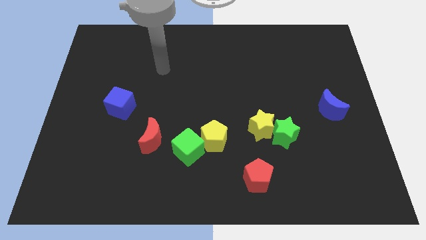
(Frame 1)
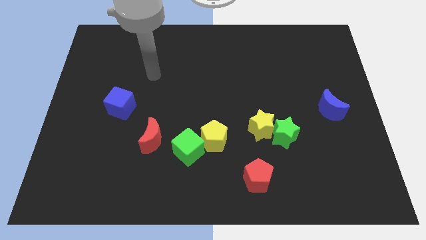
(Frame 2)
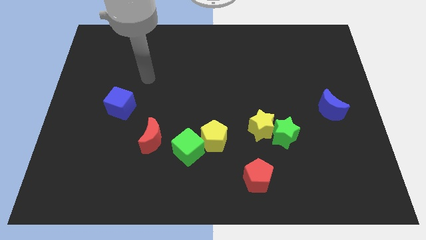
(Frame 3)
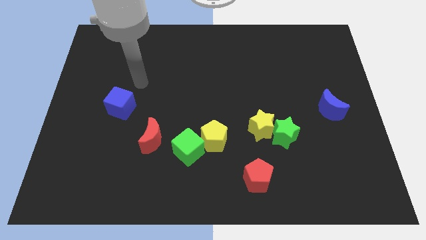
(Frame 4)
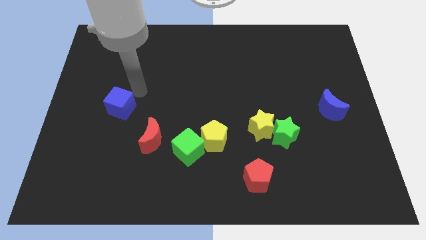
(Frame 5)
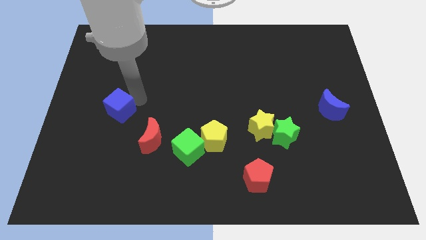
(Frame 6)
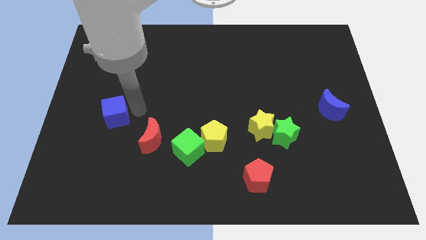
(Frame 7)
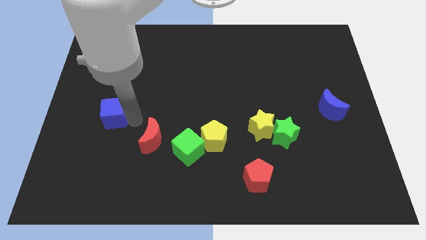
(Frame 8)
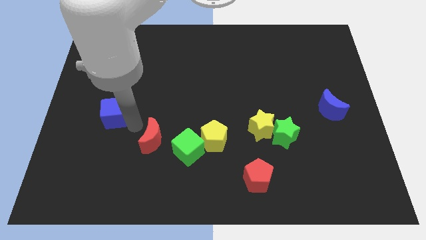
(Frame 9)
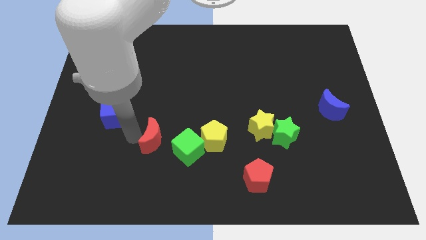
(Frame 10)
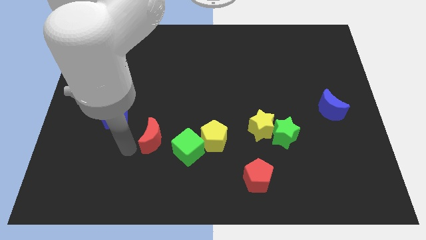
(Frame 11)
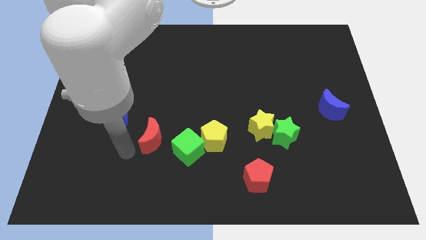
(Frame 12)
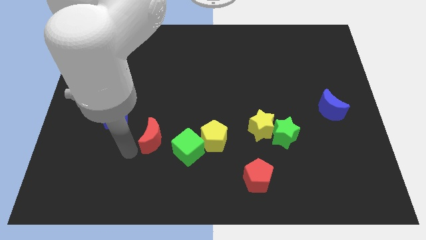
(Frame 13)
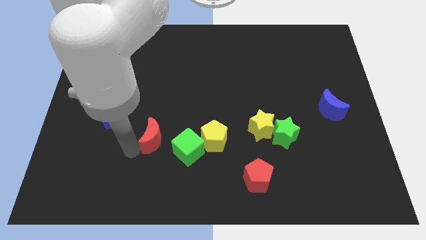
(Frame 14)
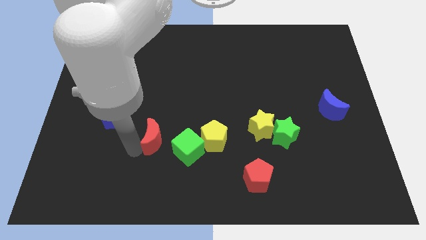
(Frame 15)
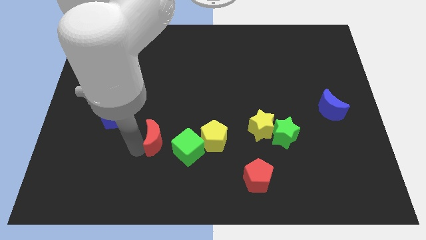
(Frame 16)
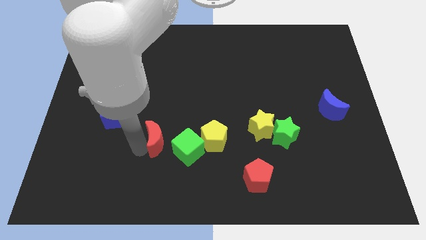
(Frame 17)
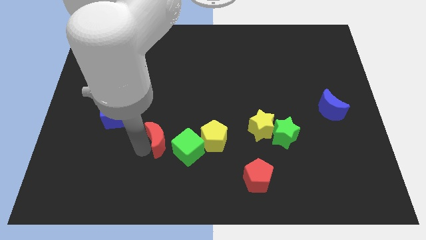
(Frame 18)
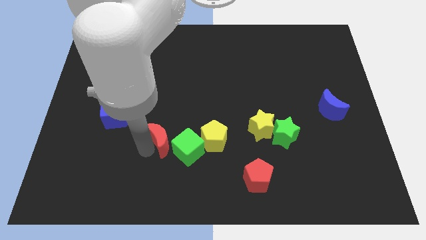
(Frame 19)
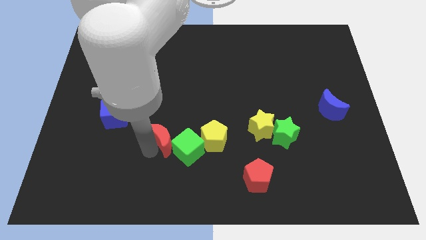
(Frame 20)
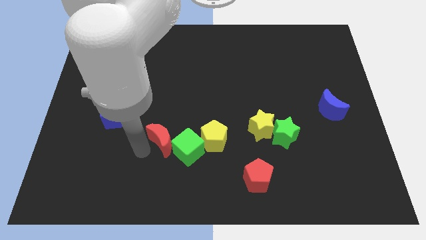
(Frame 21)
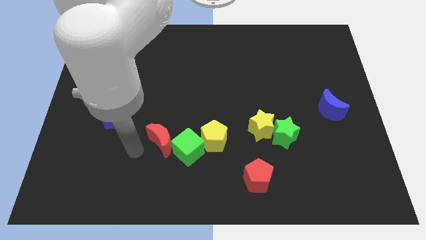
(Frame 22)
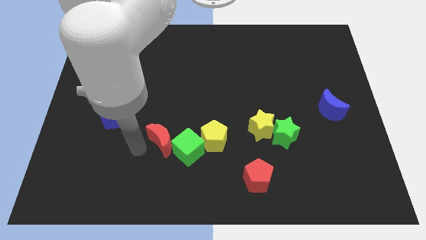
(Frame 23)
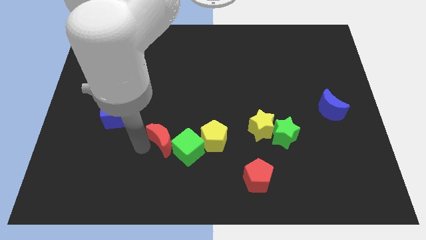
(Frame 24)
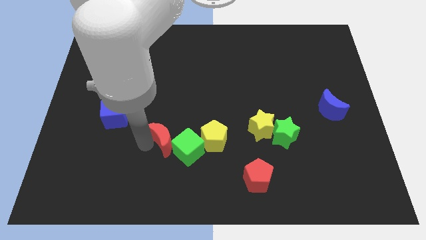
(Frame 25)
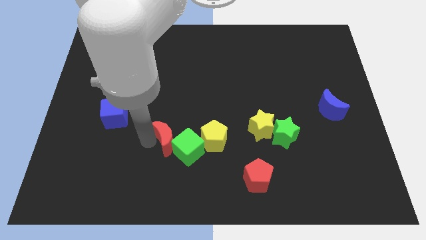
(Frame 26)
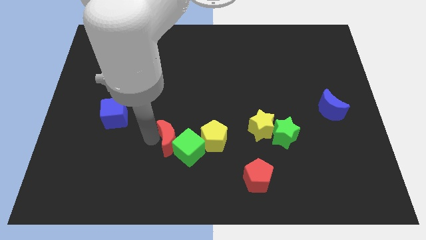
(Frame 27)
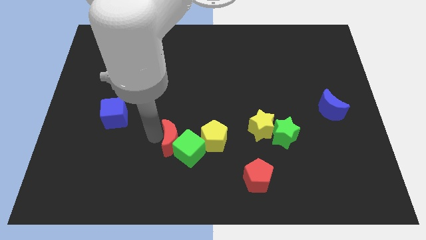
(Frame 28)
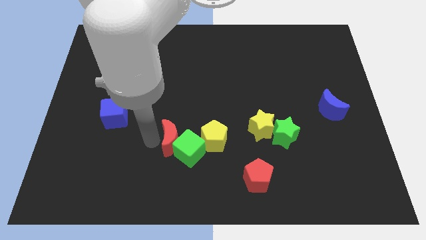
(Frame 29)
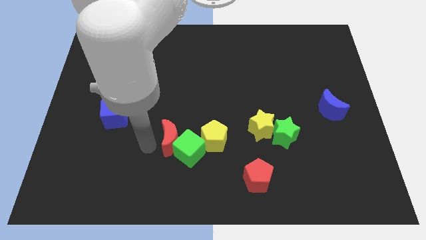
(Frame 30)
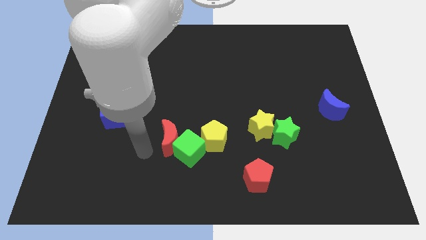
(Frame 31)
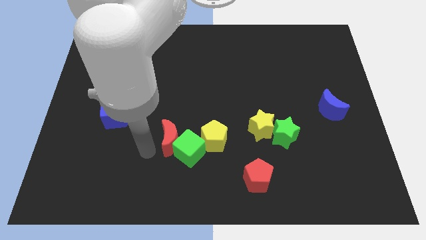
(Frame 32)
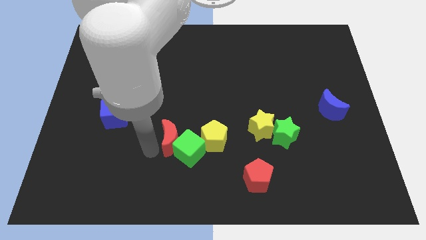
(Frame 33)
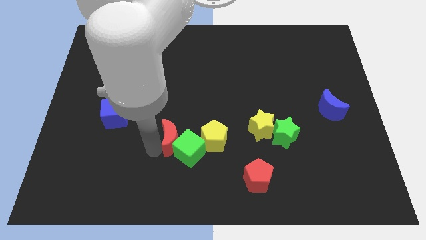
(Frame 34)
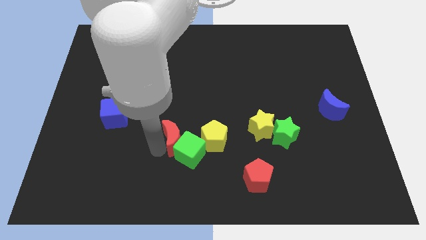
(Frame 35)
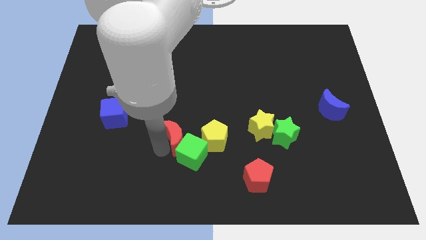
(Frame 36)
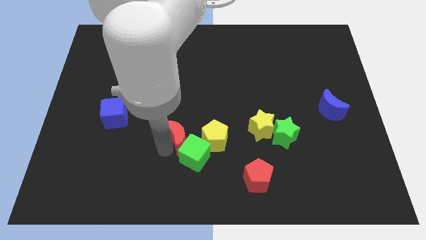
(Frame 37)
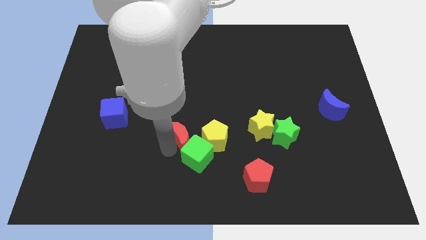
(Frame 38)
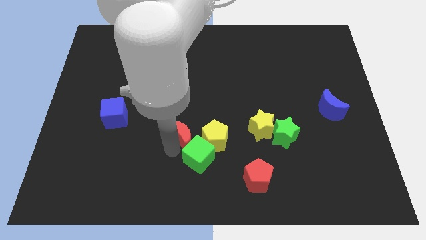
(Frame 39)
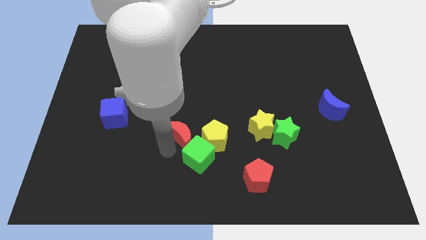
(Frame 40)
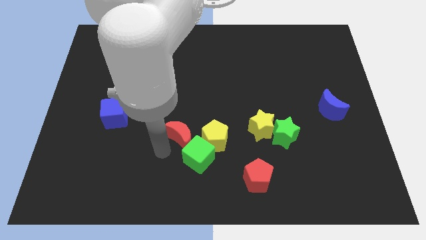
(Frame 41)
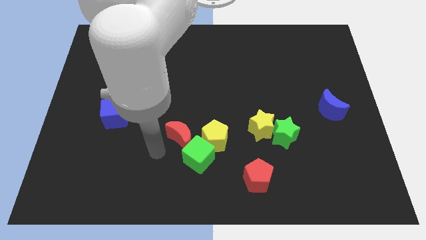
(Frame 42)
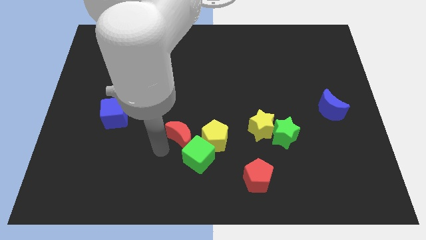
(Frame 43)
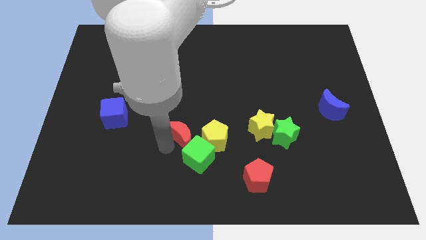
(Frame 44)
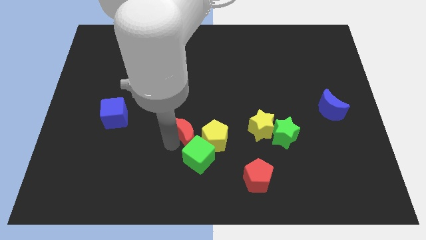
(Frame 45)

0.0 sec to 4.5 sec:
slide the red moon right somewhat

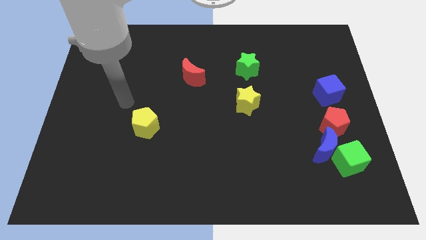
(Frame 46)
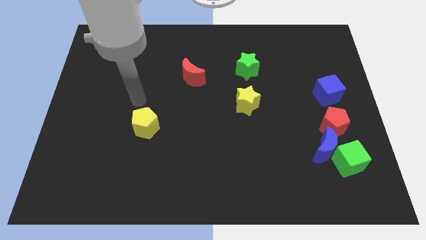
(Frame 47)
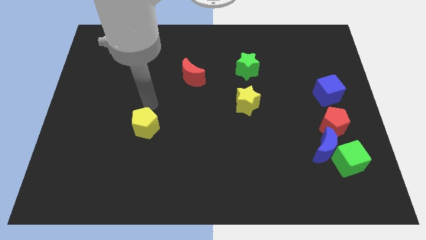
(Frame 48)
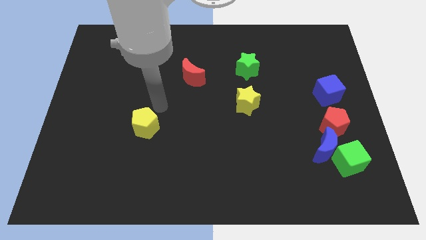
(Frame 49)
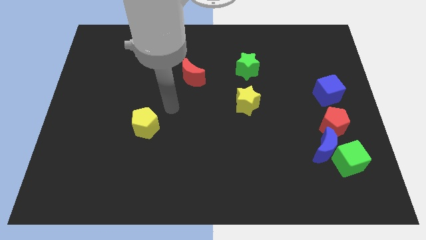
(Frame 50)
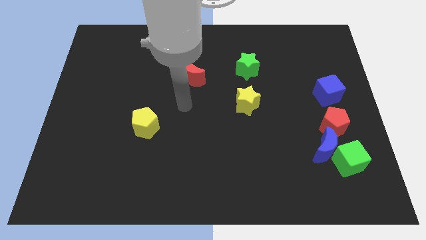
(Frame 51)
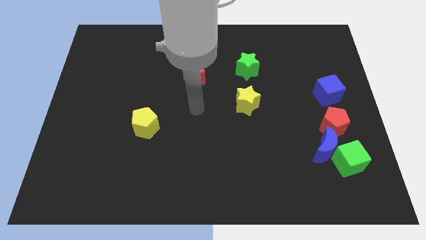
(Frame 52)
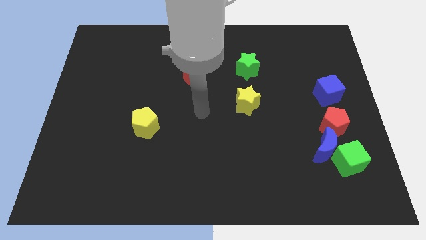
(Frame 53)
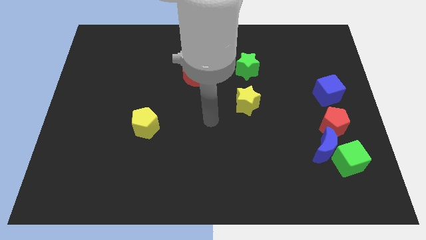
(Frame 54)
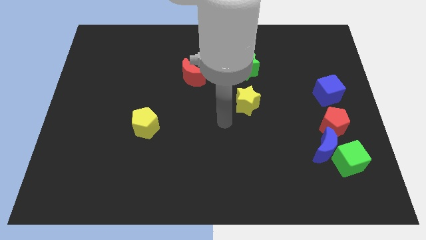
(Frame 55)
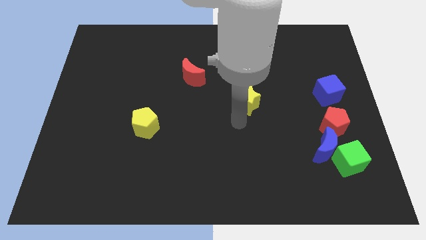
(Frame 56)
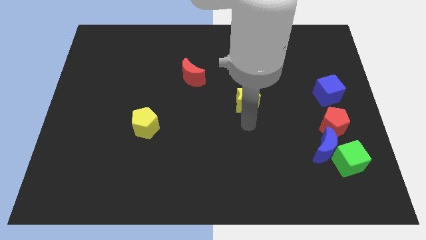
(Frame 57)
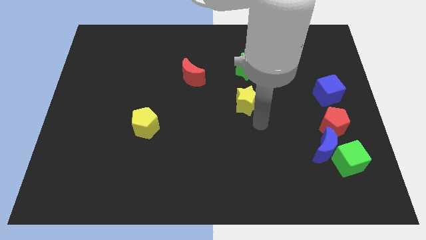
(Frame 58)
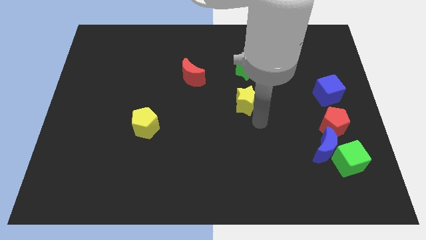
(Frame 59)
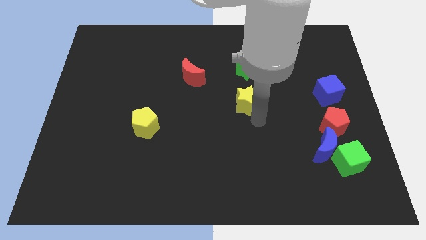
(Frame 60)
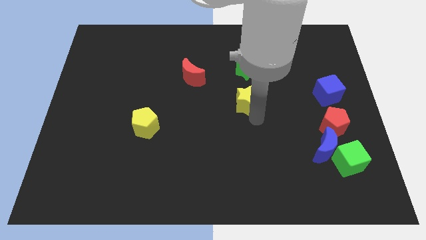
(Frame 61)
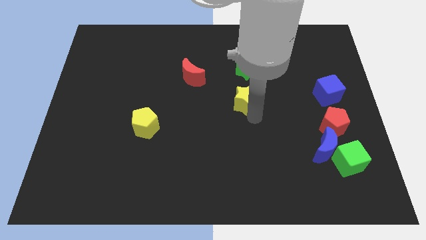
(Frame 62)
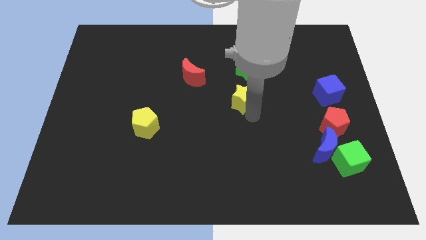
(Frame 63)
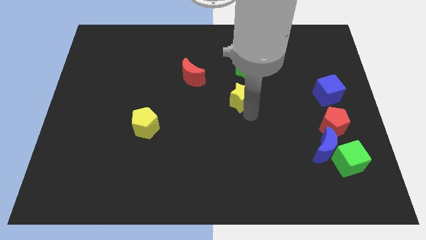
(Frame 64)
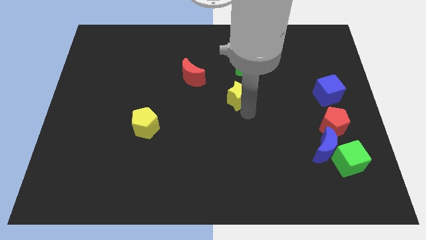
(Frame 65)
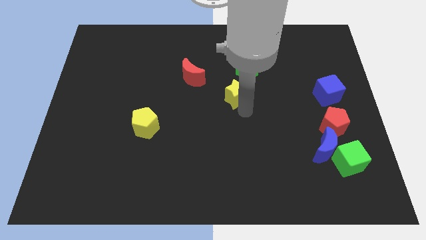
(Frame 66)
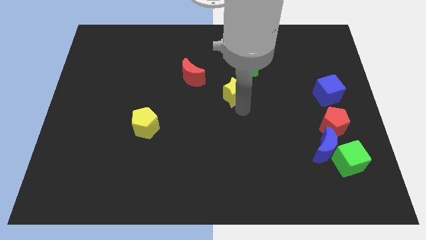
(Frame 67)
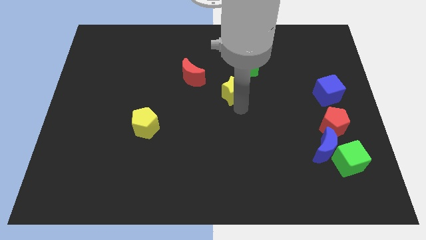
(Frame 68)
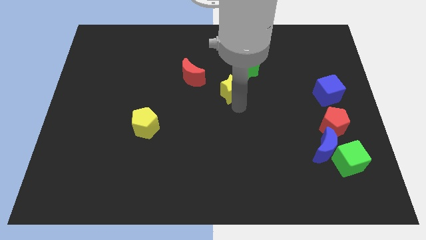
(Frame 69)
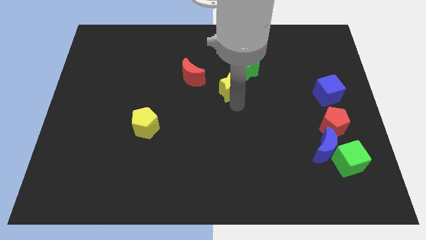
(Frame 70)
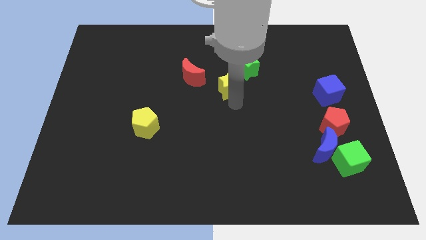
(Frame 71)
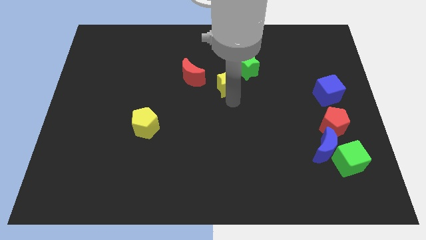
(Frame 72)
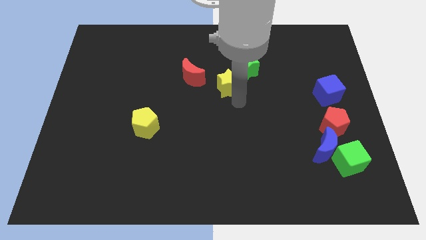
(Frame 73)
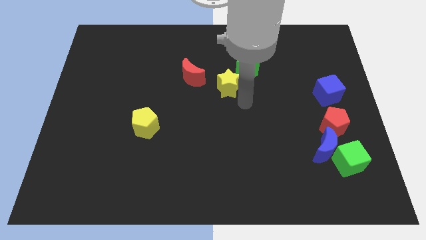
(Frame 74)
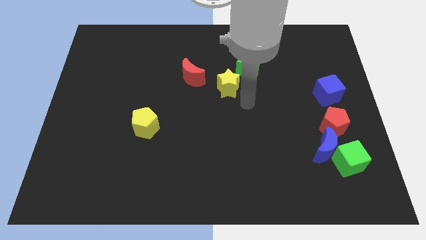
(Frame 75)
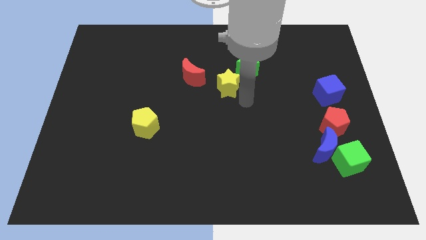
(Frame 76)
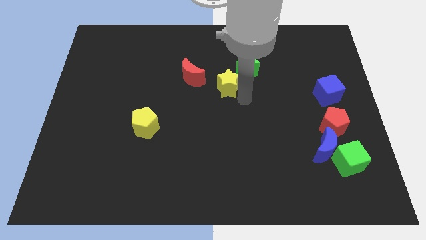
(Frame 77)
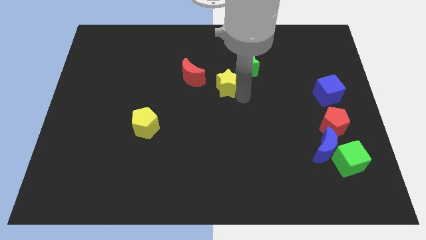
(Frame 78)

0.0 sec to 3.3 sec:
move the yellow star a bit upwards and left diagonally
